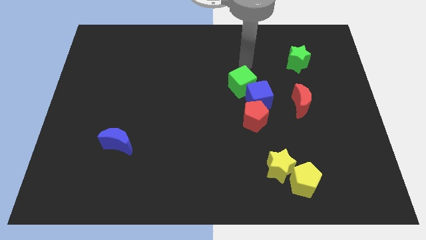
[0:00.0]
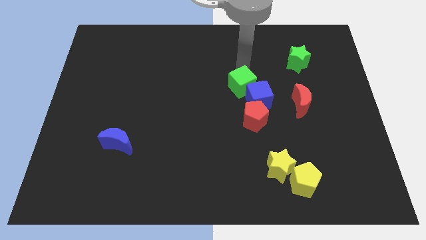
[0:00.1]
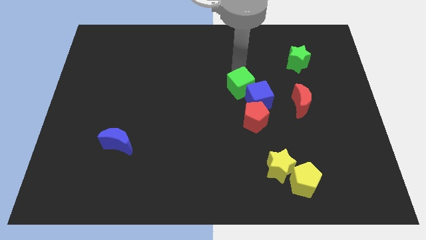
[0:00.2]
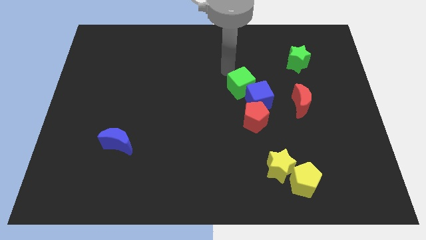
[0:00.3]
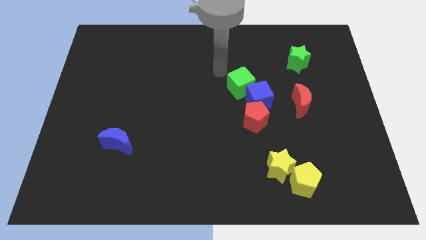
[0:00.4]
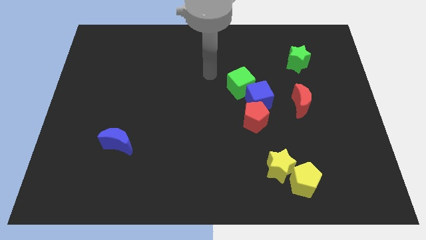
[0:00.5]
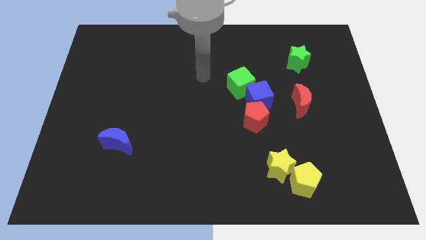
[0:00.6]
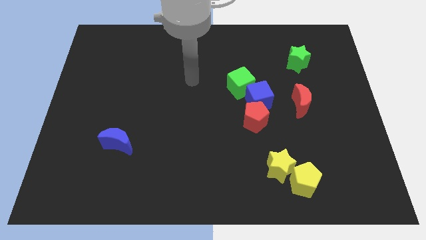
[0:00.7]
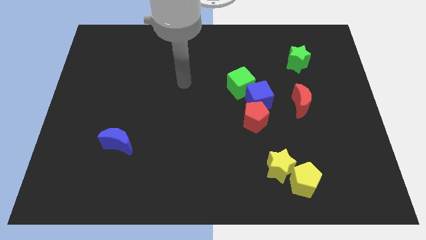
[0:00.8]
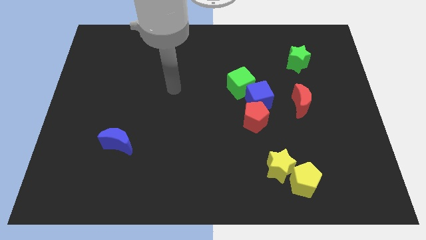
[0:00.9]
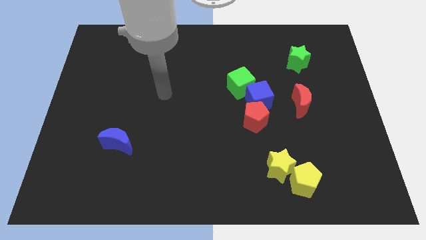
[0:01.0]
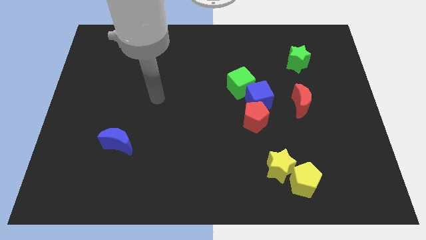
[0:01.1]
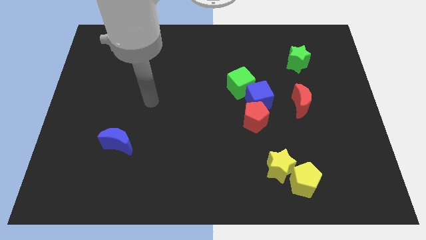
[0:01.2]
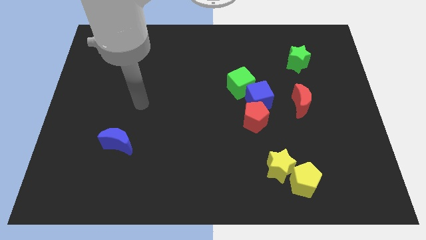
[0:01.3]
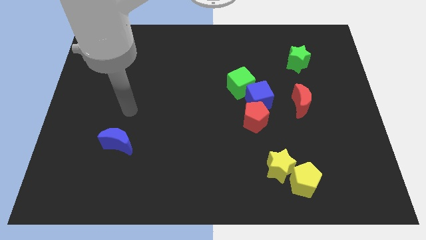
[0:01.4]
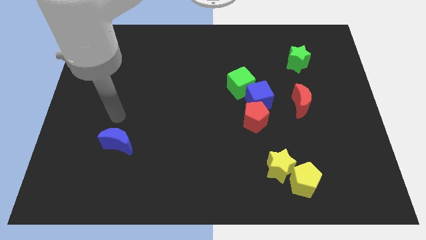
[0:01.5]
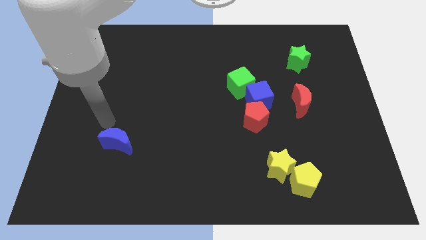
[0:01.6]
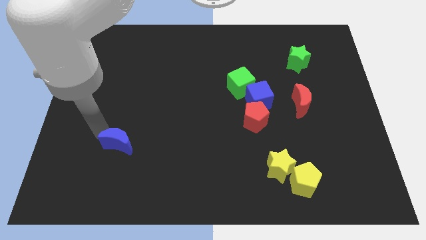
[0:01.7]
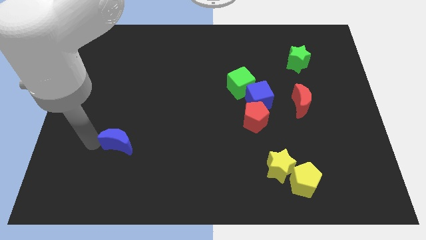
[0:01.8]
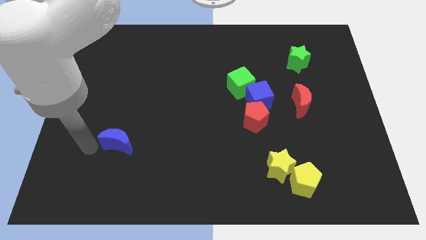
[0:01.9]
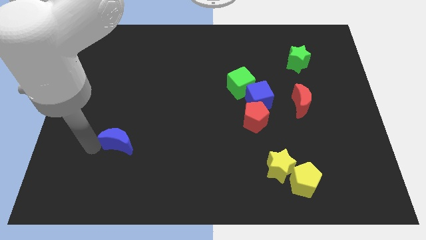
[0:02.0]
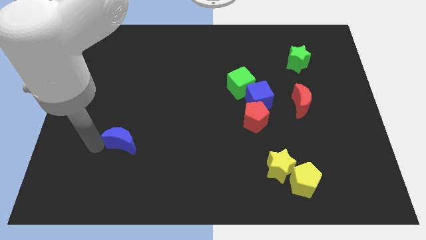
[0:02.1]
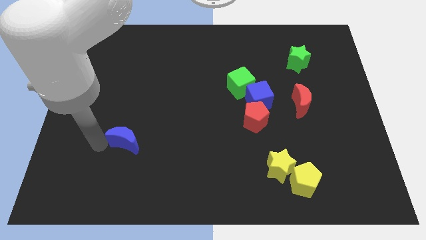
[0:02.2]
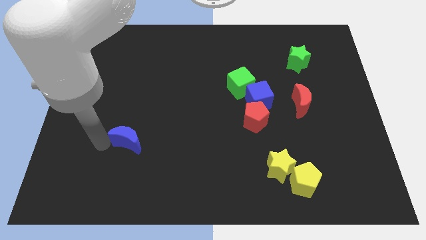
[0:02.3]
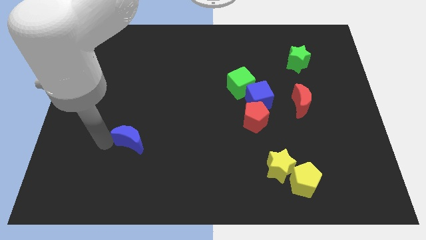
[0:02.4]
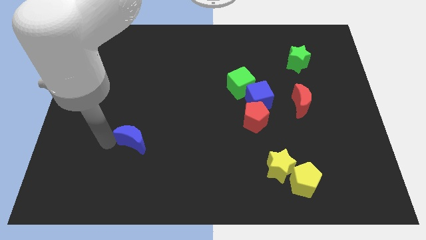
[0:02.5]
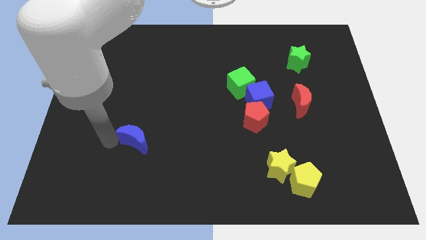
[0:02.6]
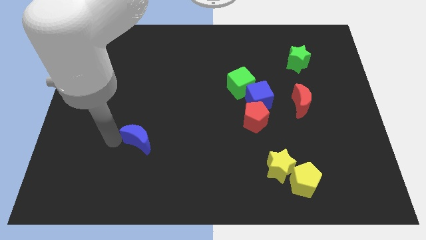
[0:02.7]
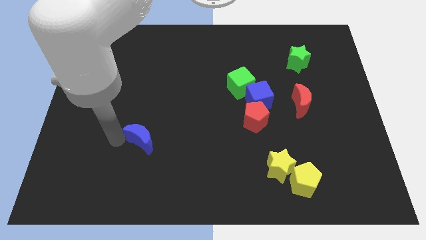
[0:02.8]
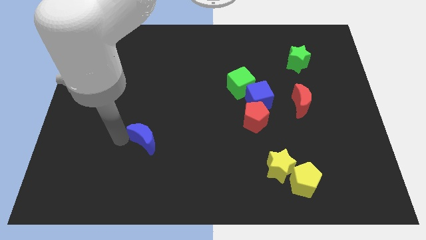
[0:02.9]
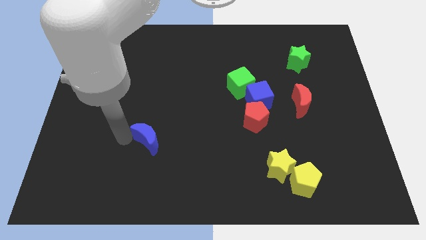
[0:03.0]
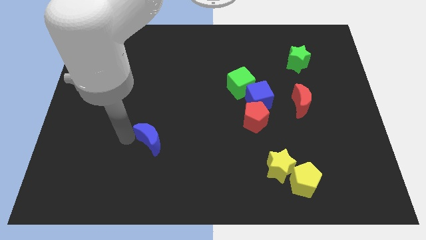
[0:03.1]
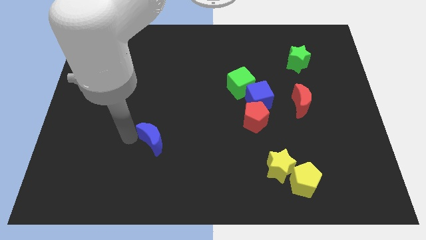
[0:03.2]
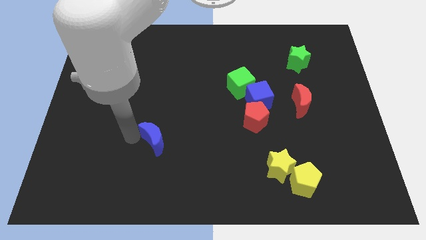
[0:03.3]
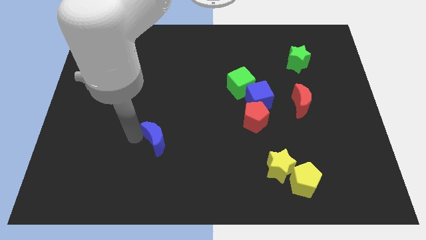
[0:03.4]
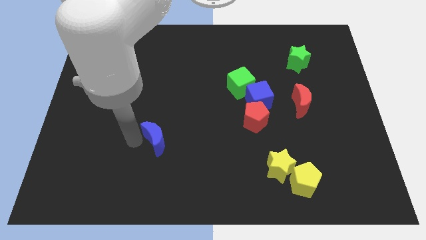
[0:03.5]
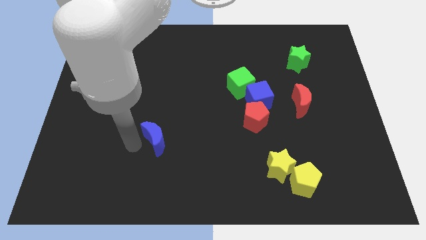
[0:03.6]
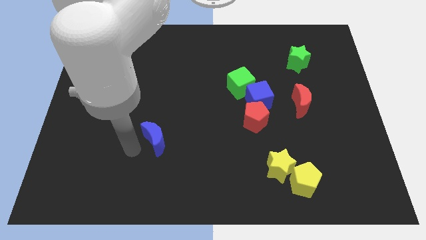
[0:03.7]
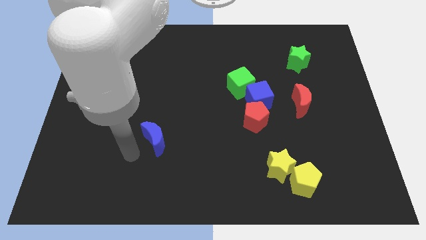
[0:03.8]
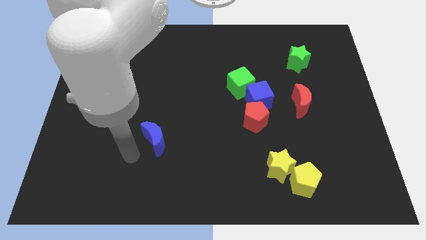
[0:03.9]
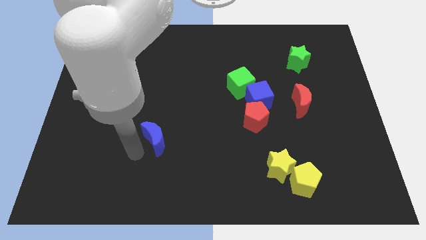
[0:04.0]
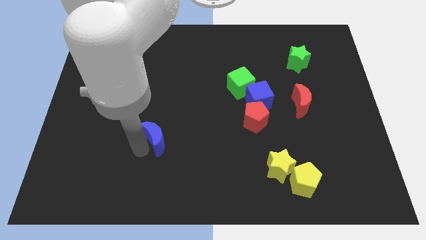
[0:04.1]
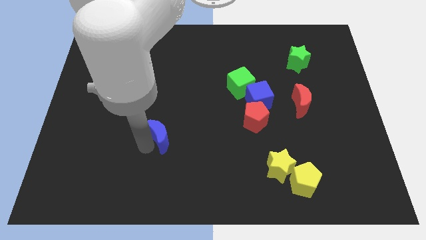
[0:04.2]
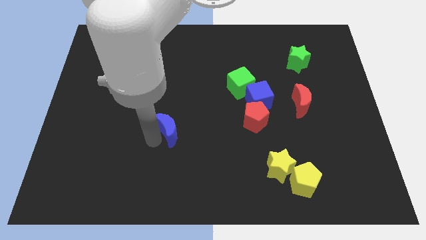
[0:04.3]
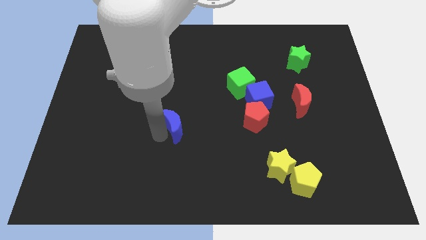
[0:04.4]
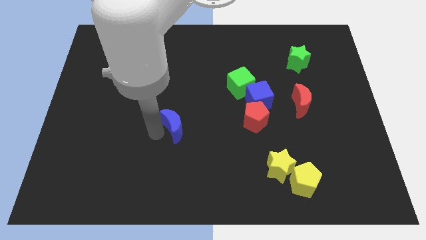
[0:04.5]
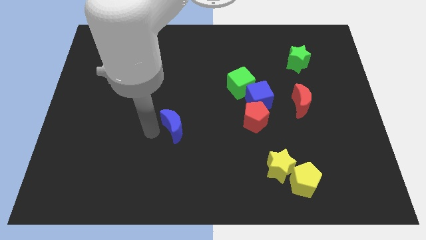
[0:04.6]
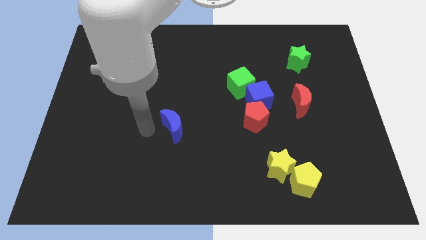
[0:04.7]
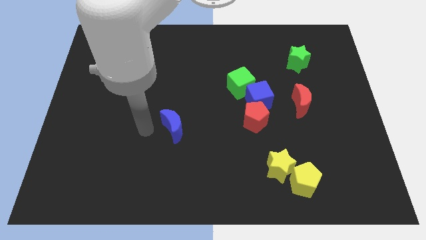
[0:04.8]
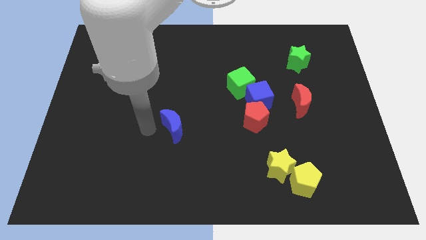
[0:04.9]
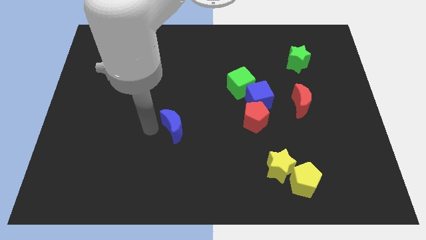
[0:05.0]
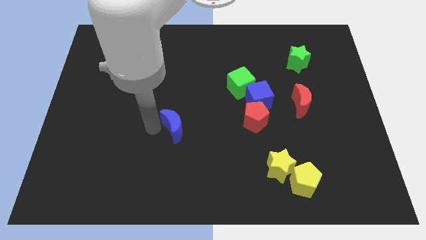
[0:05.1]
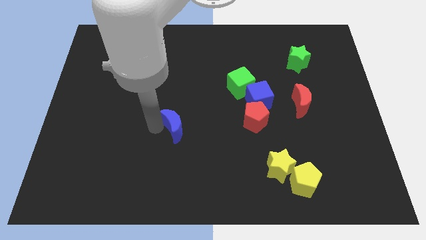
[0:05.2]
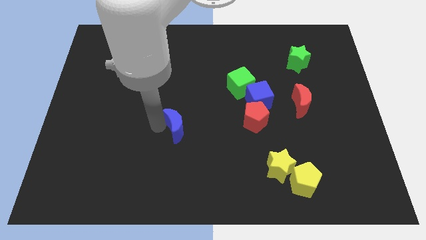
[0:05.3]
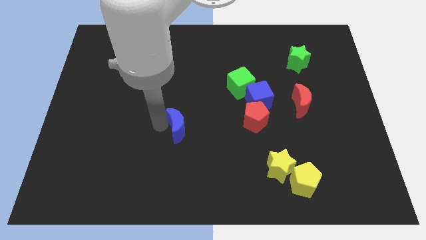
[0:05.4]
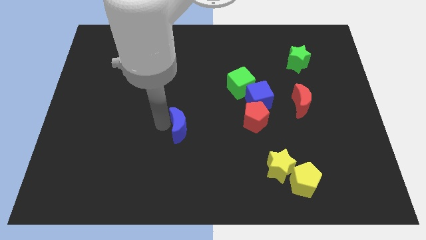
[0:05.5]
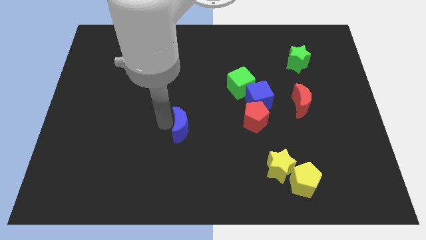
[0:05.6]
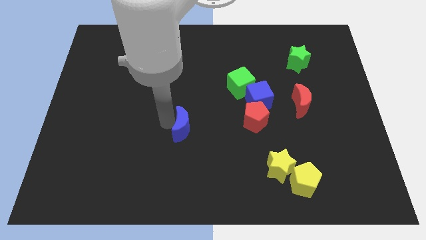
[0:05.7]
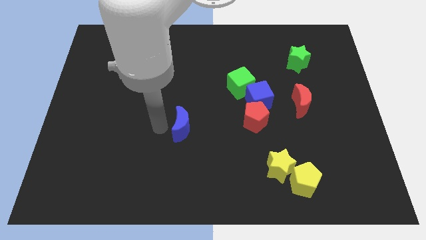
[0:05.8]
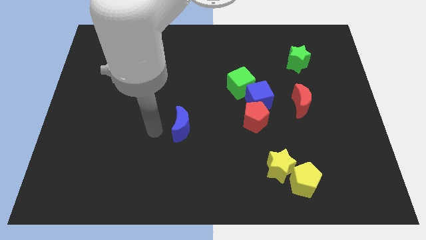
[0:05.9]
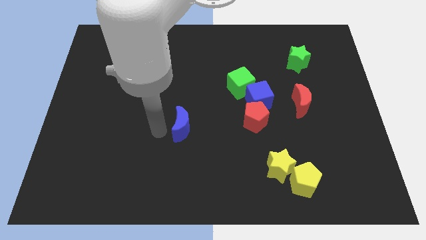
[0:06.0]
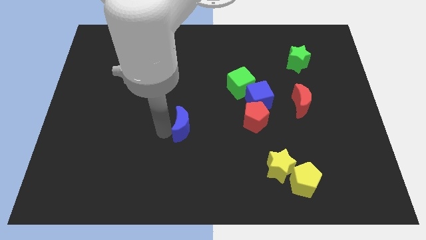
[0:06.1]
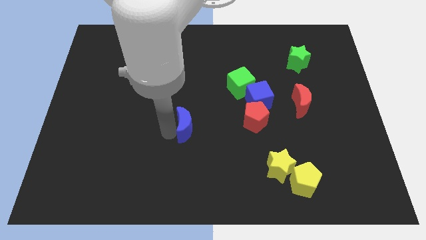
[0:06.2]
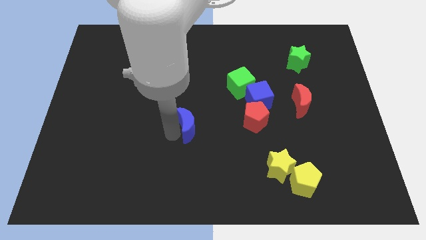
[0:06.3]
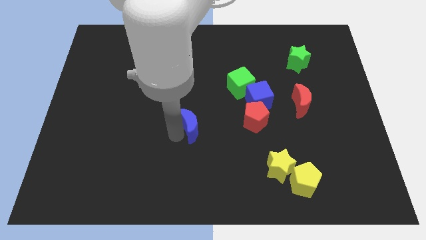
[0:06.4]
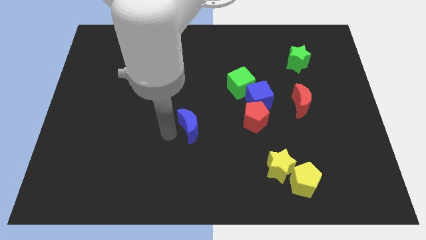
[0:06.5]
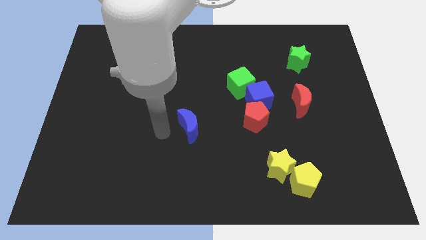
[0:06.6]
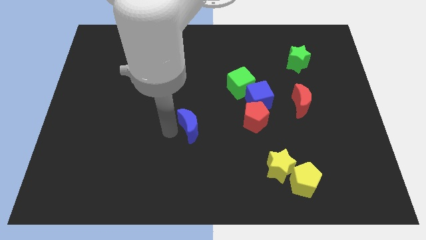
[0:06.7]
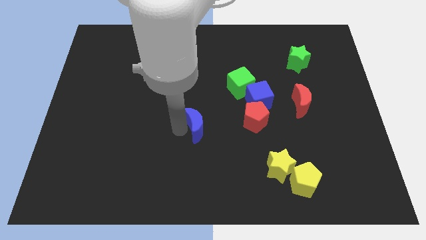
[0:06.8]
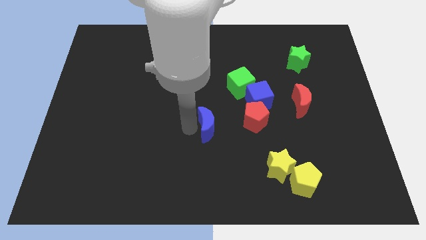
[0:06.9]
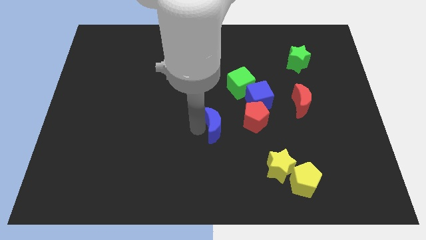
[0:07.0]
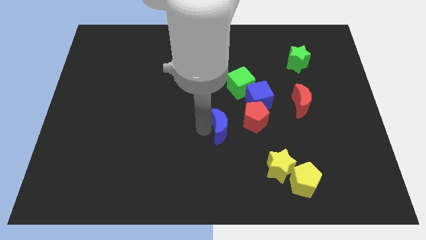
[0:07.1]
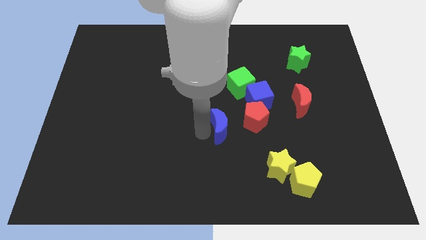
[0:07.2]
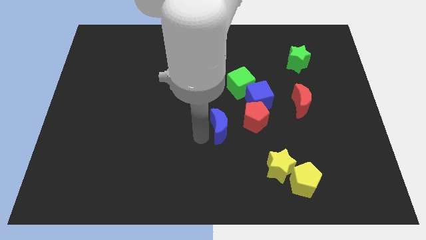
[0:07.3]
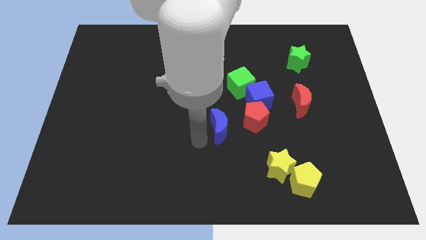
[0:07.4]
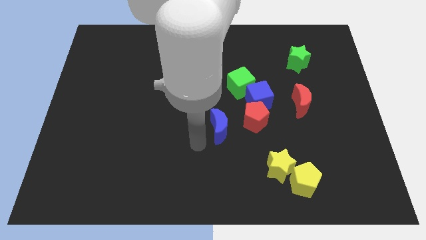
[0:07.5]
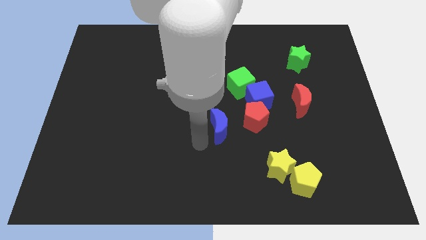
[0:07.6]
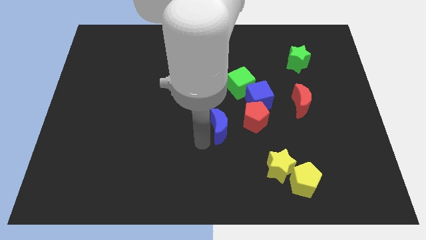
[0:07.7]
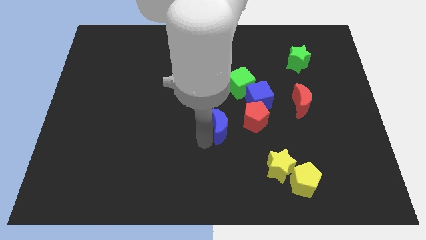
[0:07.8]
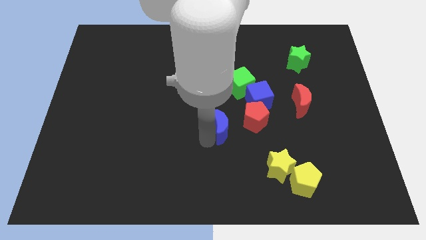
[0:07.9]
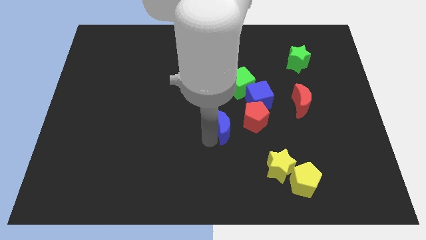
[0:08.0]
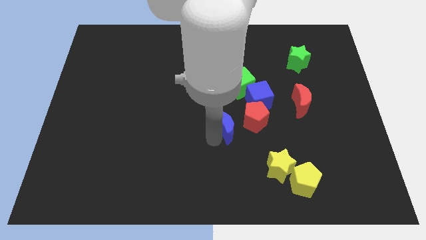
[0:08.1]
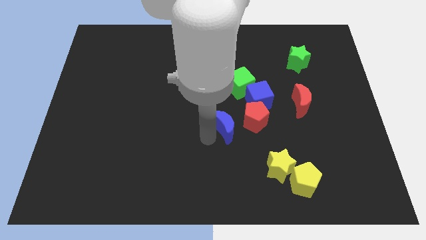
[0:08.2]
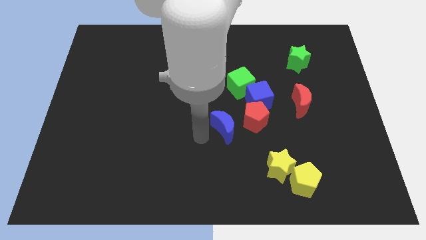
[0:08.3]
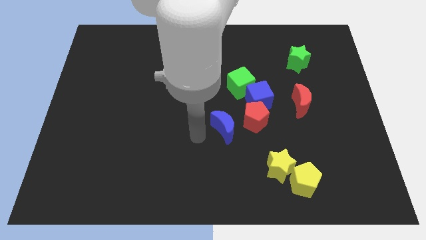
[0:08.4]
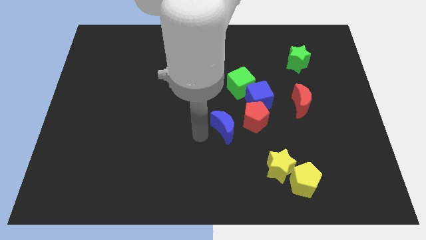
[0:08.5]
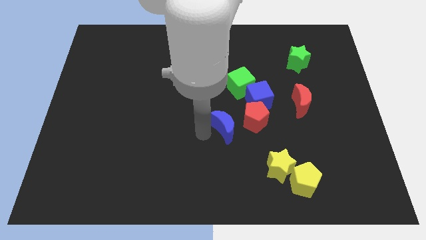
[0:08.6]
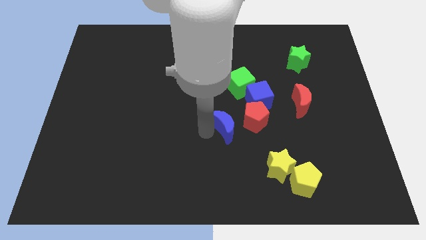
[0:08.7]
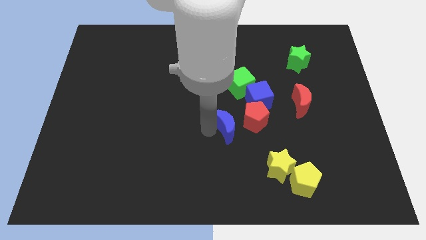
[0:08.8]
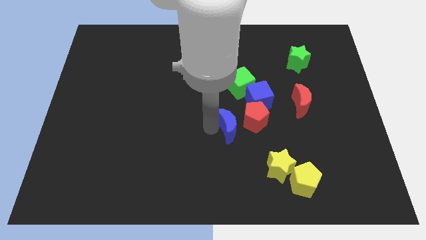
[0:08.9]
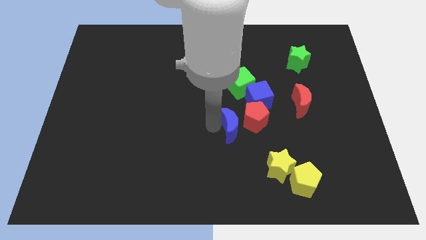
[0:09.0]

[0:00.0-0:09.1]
put the blue moon to the red pentagon
